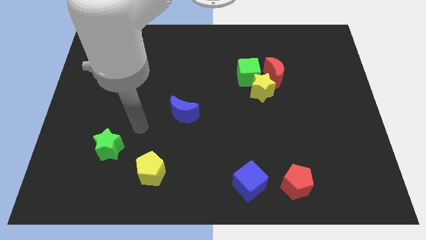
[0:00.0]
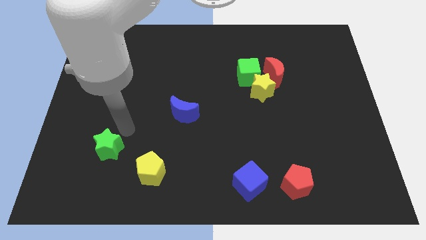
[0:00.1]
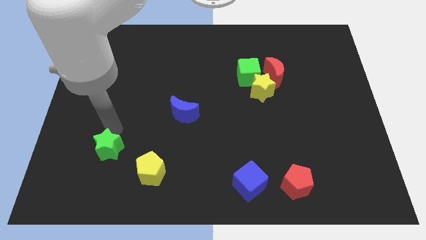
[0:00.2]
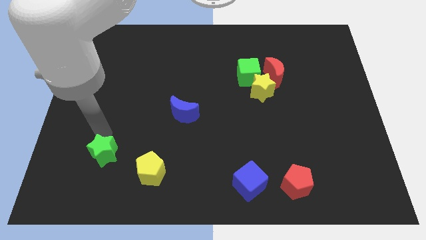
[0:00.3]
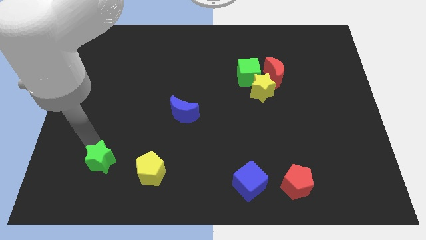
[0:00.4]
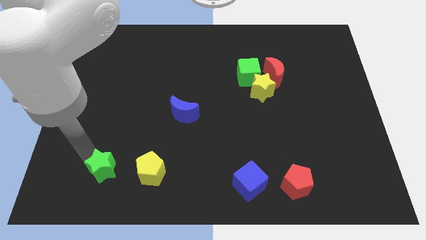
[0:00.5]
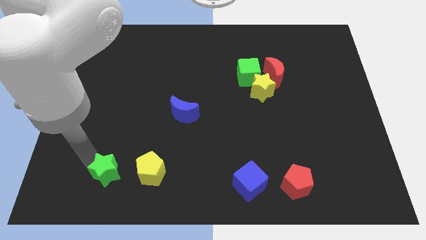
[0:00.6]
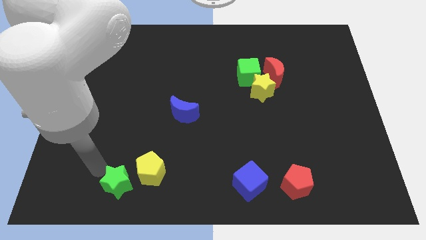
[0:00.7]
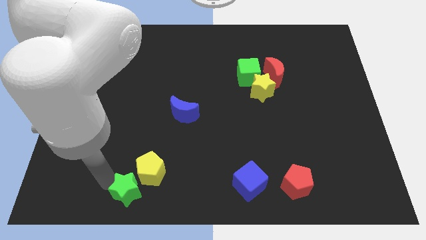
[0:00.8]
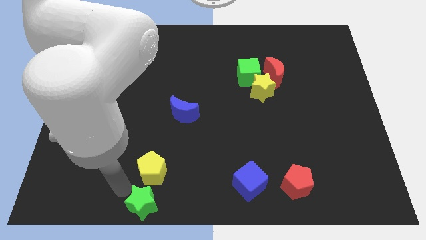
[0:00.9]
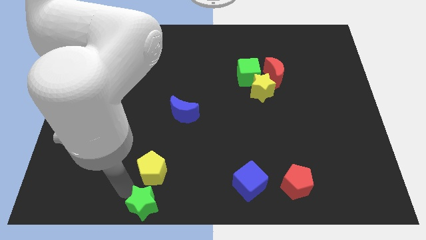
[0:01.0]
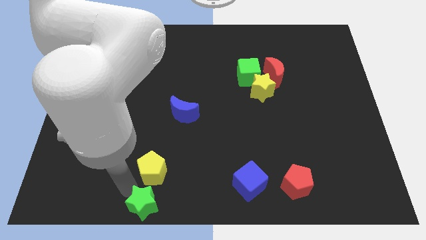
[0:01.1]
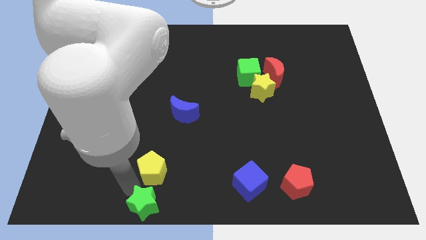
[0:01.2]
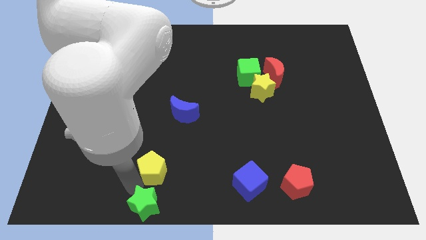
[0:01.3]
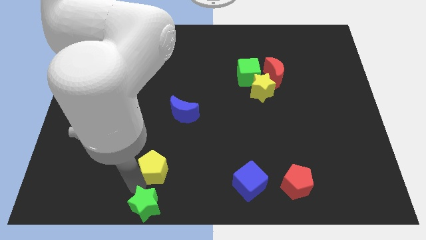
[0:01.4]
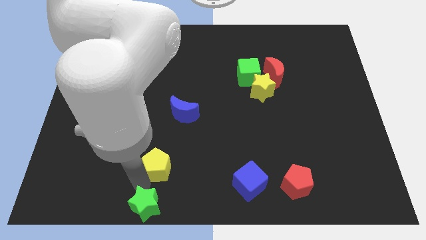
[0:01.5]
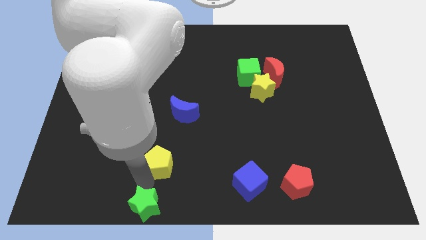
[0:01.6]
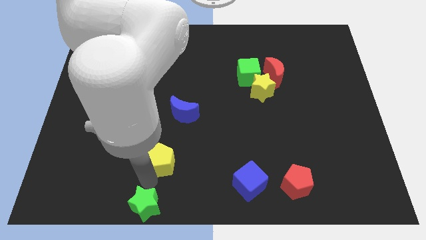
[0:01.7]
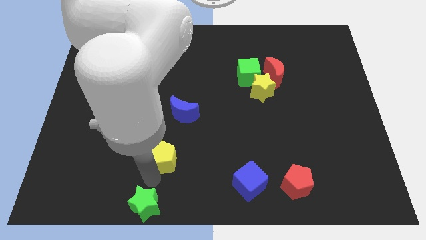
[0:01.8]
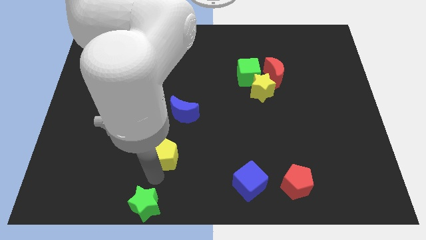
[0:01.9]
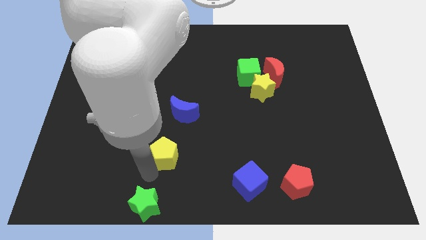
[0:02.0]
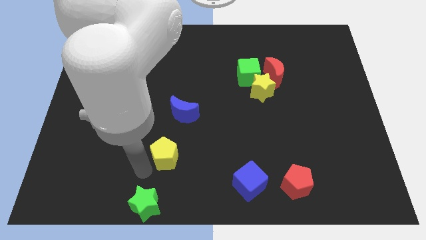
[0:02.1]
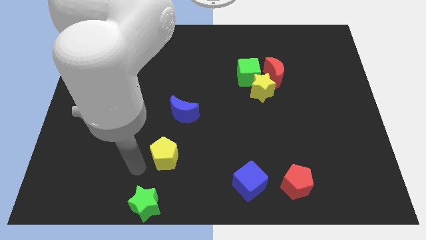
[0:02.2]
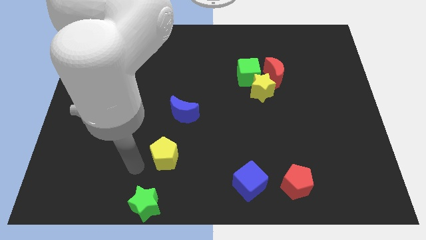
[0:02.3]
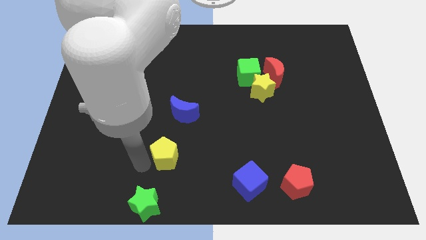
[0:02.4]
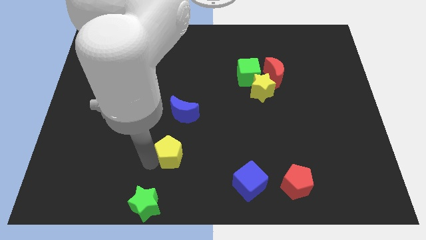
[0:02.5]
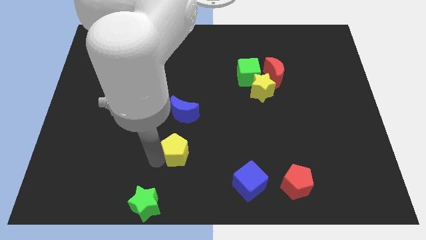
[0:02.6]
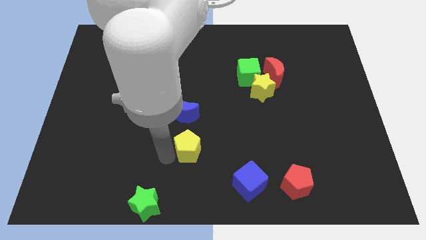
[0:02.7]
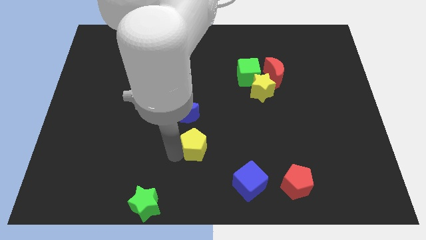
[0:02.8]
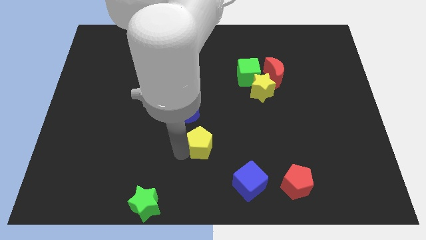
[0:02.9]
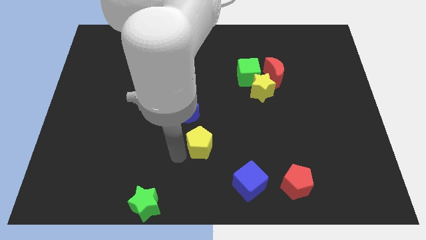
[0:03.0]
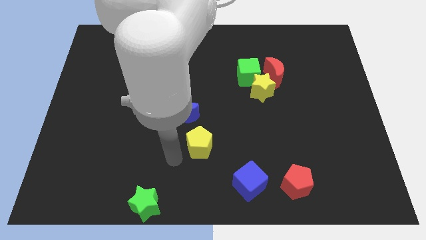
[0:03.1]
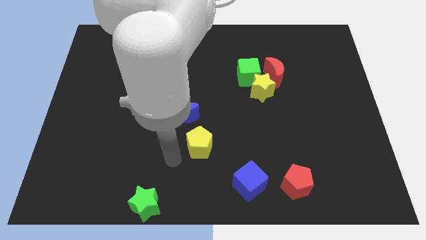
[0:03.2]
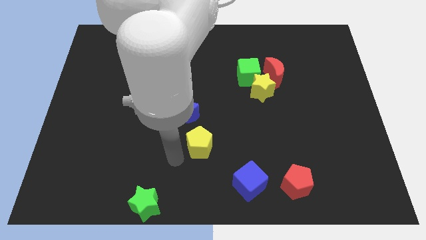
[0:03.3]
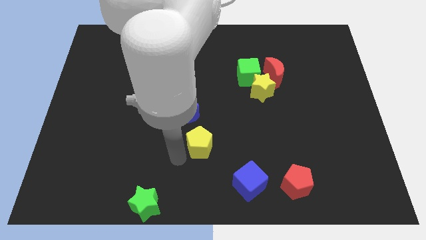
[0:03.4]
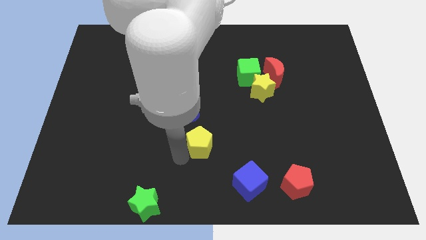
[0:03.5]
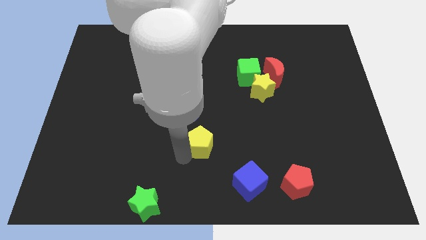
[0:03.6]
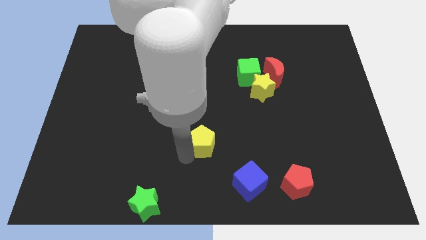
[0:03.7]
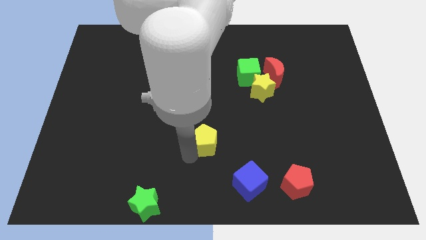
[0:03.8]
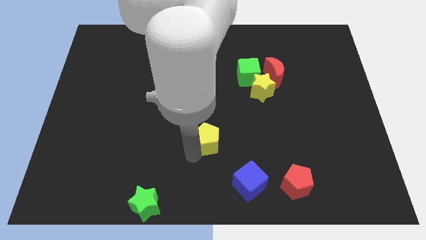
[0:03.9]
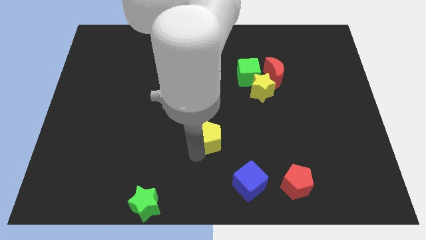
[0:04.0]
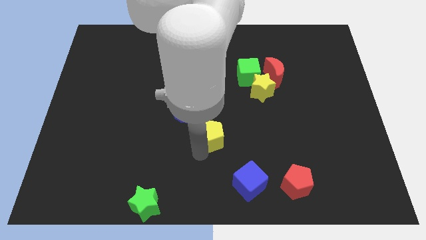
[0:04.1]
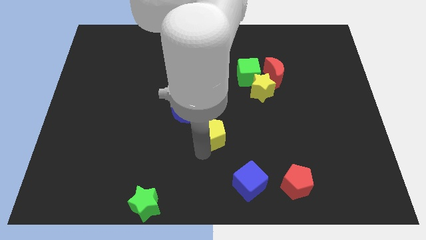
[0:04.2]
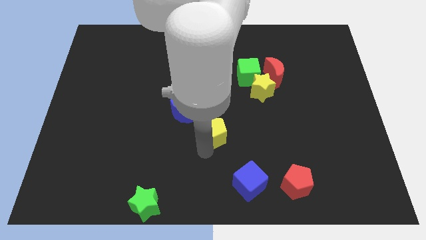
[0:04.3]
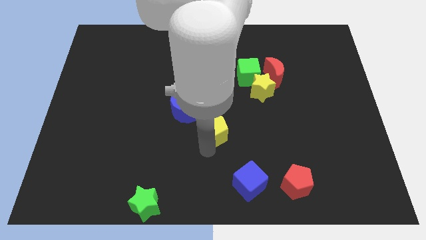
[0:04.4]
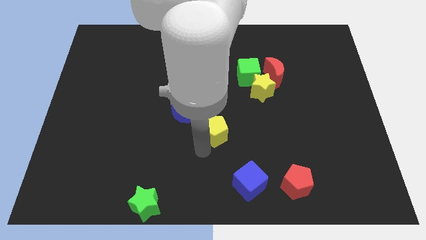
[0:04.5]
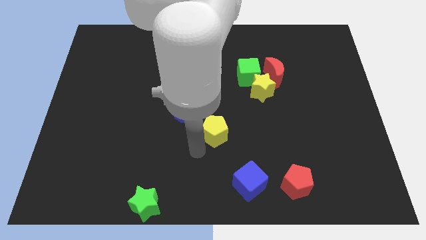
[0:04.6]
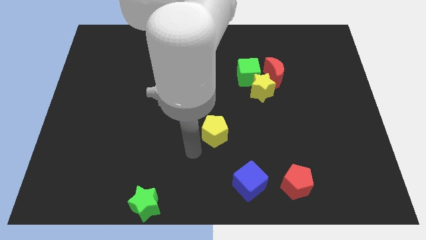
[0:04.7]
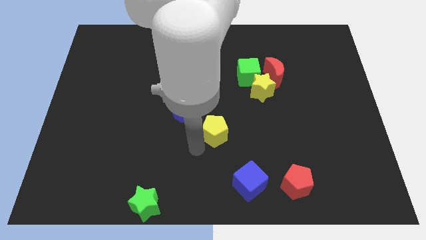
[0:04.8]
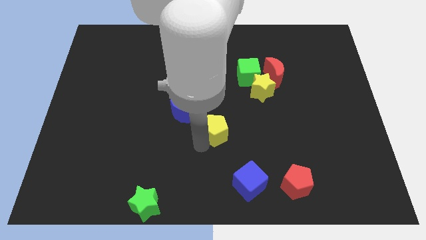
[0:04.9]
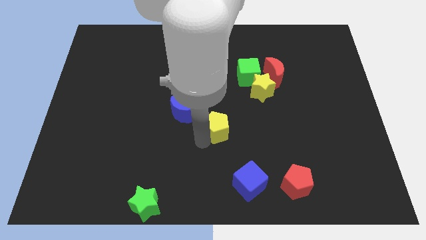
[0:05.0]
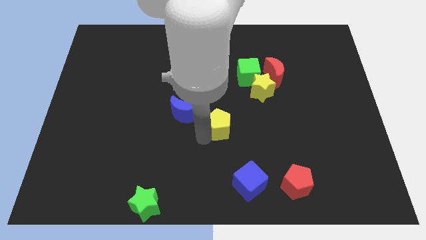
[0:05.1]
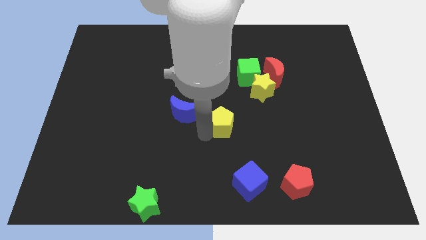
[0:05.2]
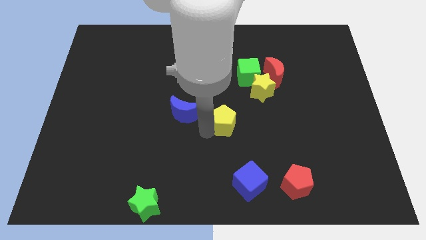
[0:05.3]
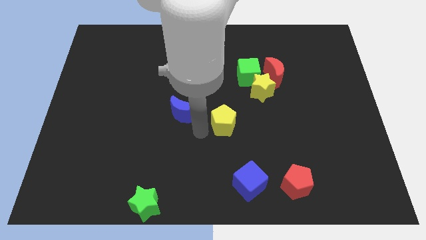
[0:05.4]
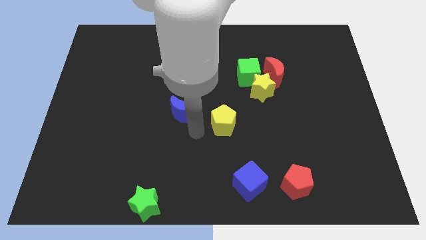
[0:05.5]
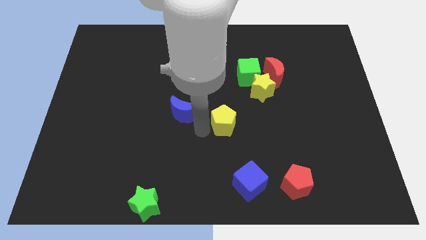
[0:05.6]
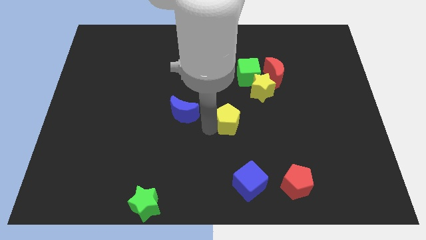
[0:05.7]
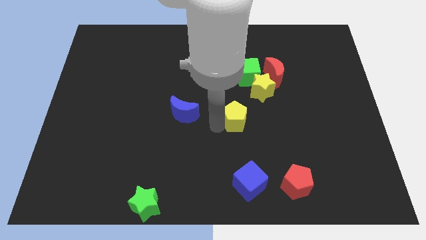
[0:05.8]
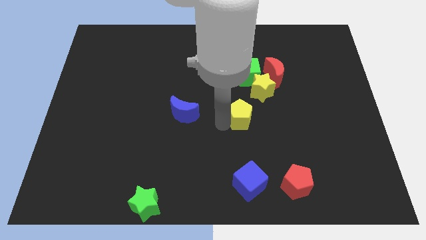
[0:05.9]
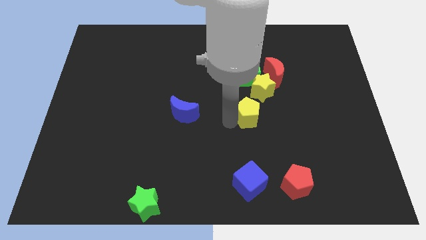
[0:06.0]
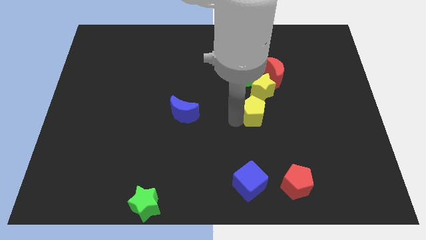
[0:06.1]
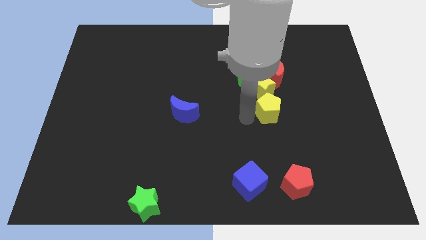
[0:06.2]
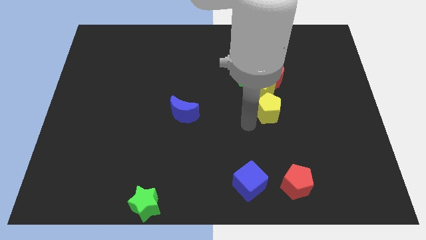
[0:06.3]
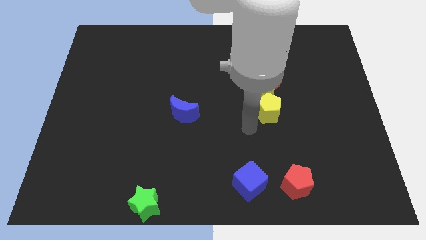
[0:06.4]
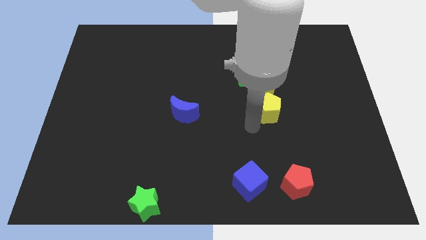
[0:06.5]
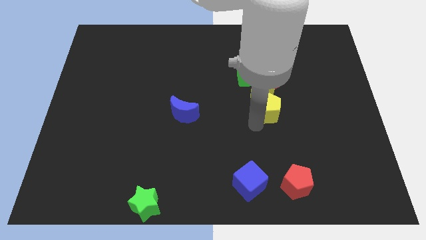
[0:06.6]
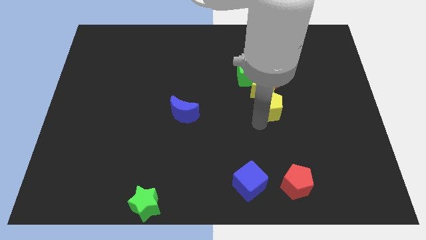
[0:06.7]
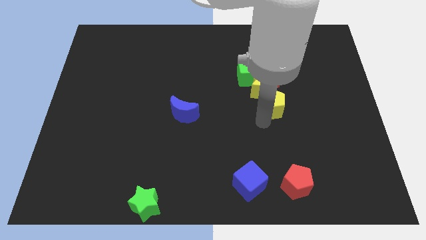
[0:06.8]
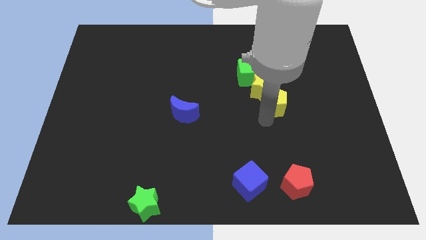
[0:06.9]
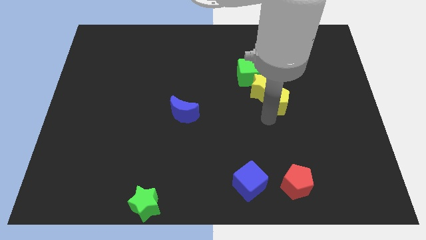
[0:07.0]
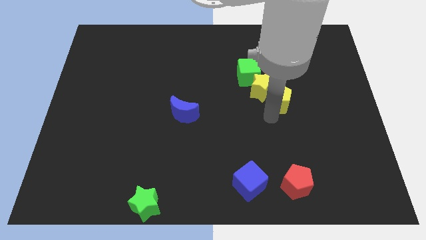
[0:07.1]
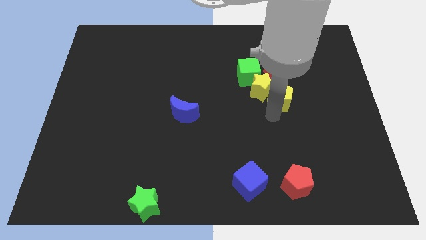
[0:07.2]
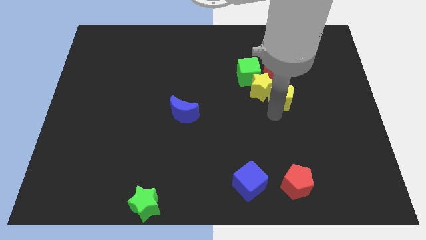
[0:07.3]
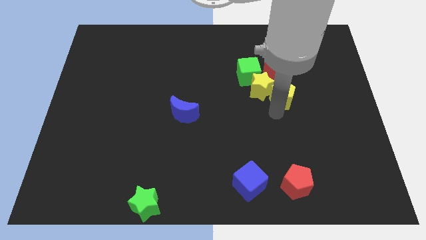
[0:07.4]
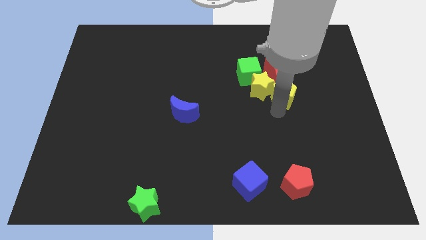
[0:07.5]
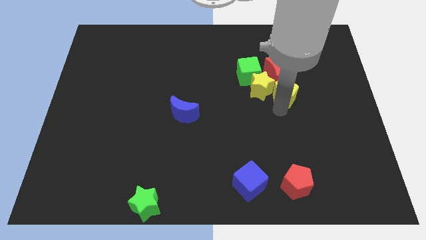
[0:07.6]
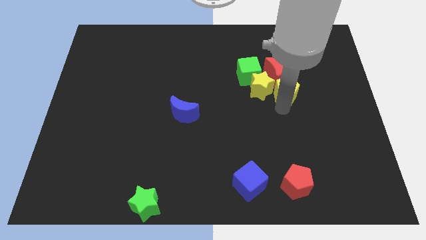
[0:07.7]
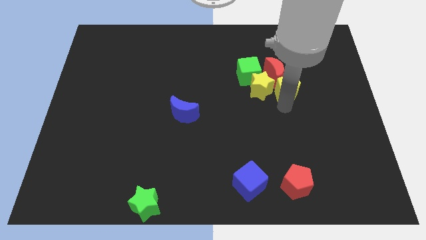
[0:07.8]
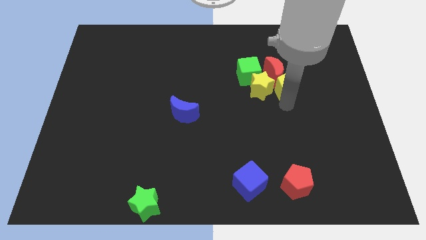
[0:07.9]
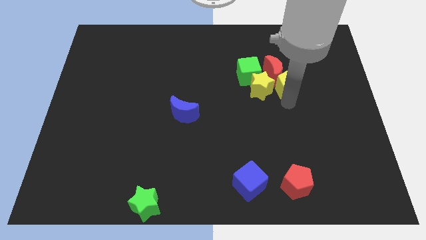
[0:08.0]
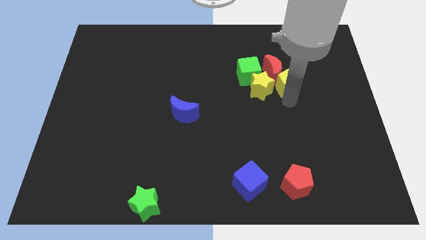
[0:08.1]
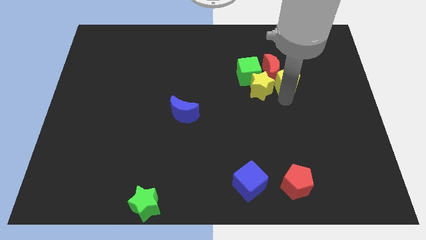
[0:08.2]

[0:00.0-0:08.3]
slide the yellow pentagon right of the red moon
